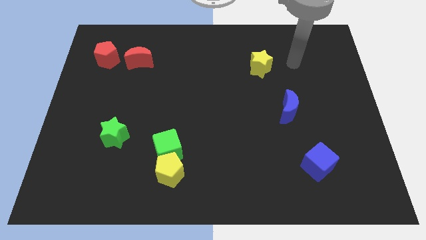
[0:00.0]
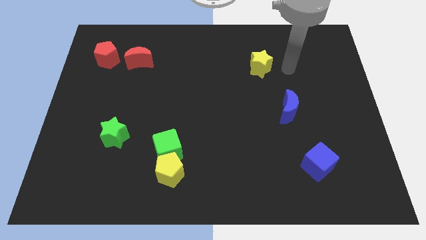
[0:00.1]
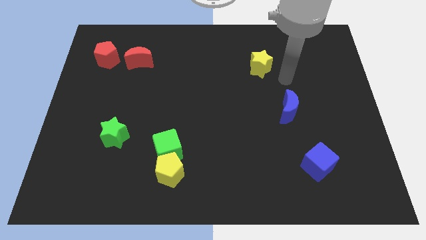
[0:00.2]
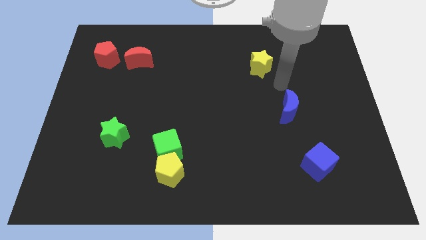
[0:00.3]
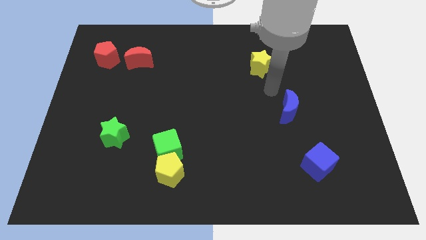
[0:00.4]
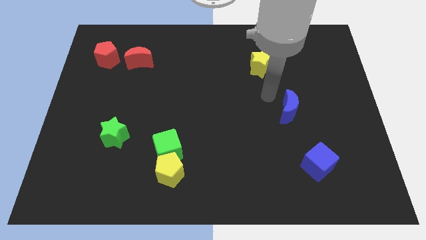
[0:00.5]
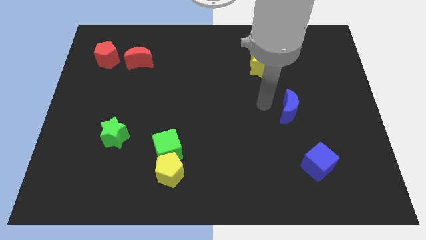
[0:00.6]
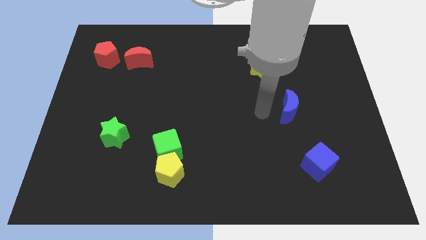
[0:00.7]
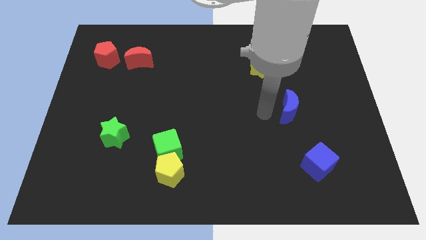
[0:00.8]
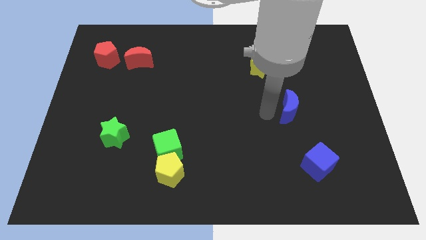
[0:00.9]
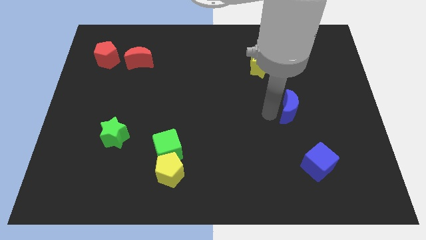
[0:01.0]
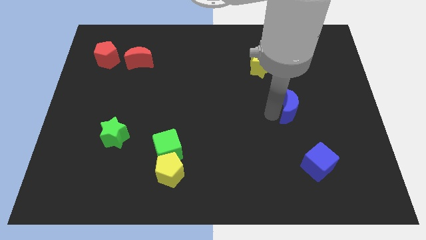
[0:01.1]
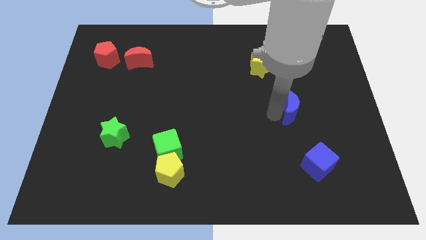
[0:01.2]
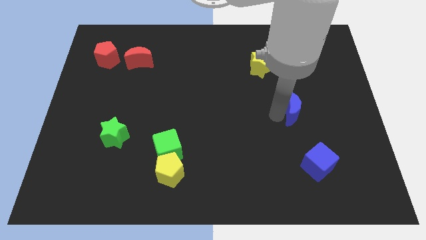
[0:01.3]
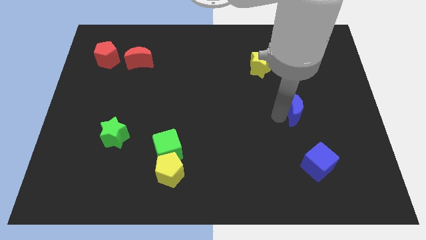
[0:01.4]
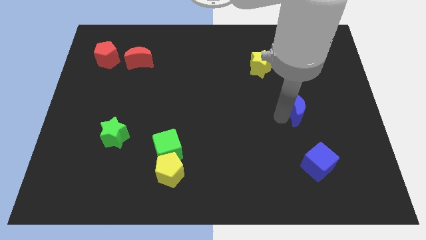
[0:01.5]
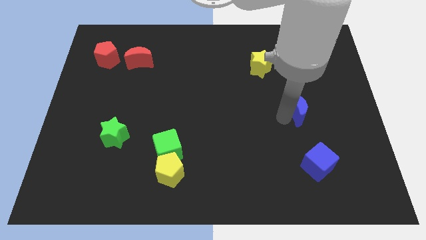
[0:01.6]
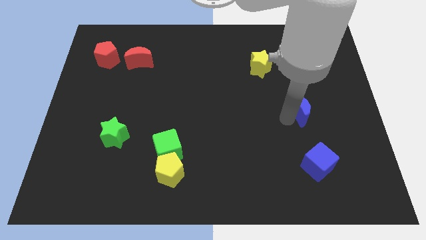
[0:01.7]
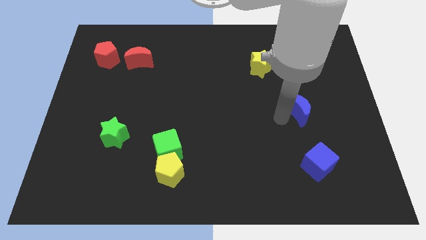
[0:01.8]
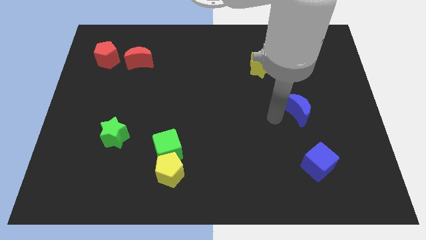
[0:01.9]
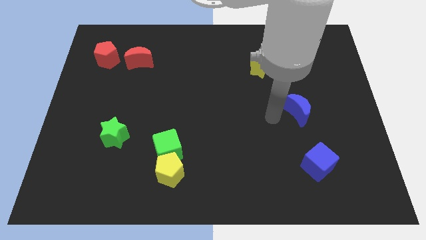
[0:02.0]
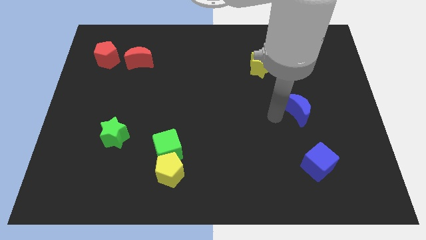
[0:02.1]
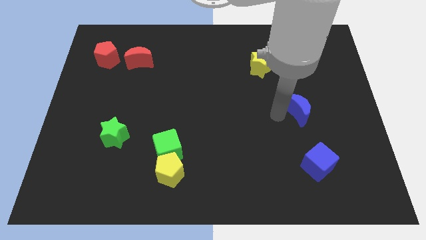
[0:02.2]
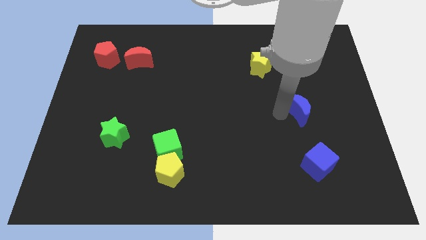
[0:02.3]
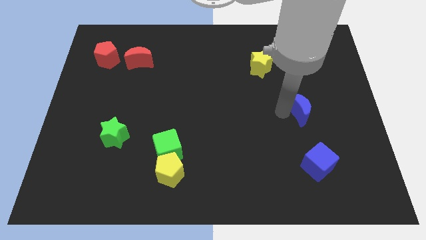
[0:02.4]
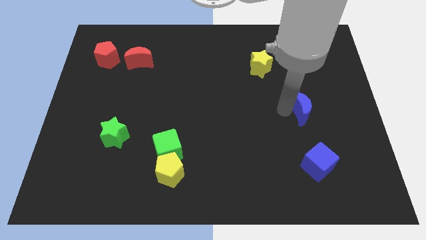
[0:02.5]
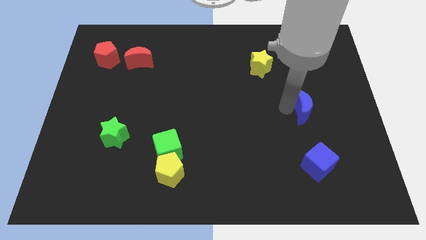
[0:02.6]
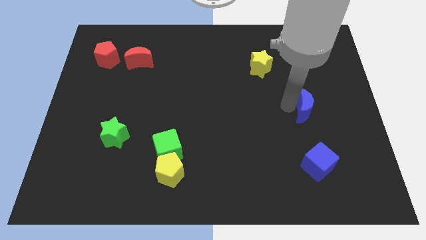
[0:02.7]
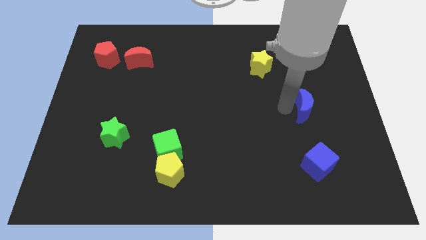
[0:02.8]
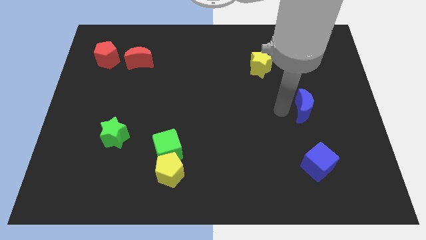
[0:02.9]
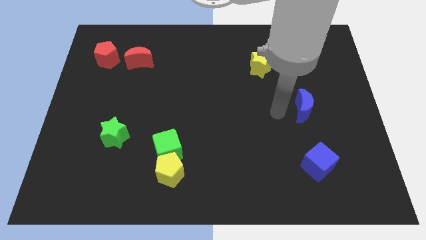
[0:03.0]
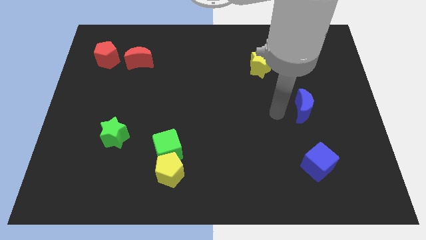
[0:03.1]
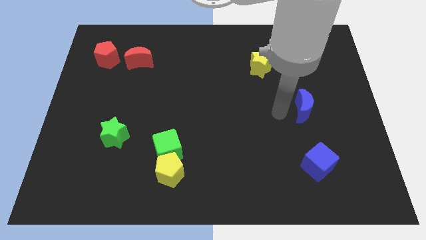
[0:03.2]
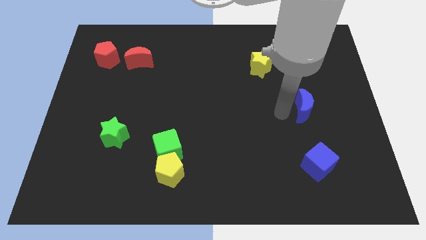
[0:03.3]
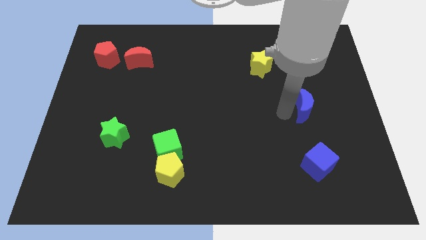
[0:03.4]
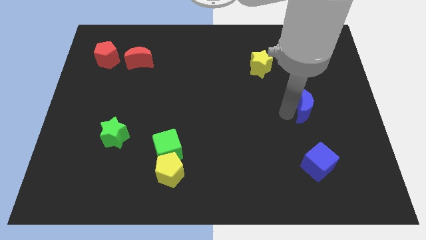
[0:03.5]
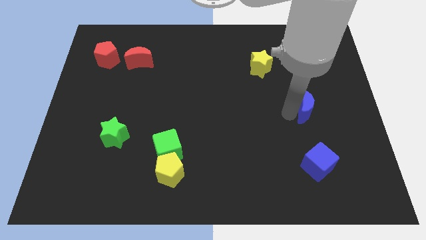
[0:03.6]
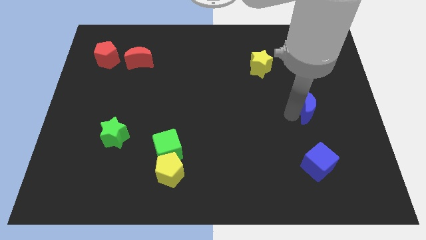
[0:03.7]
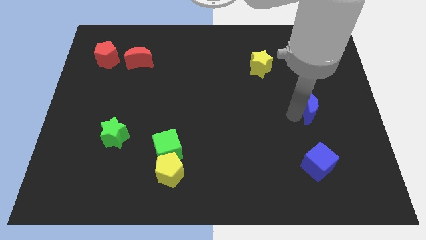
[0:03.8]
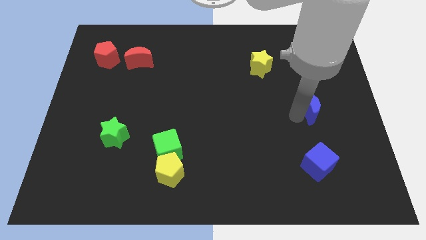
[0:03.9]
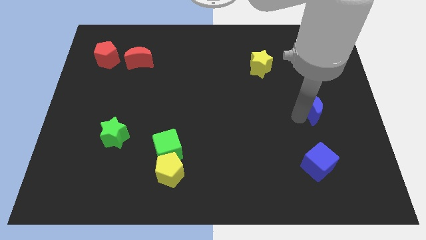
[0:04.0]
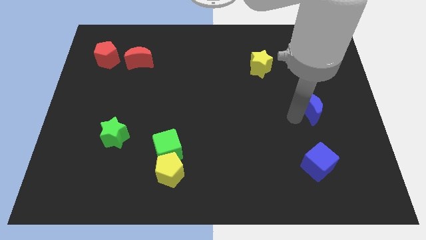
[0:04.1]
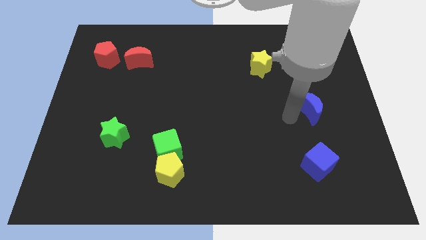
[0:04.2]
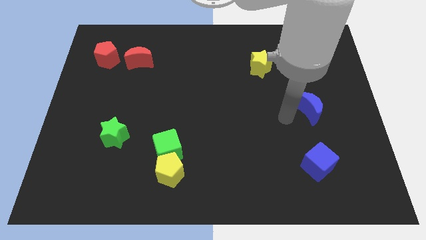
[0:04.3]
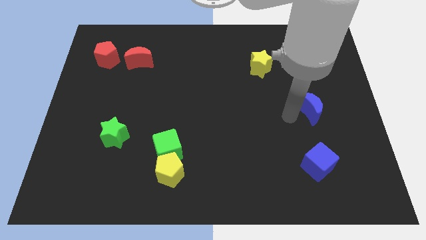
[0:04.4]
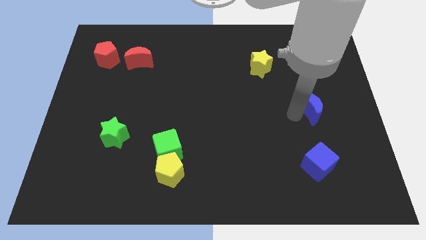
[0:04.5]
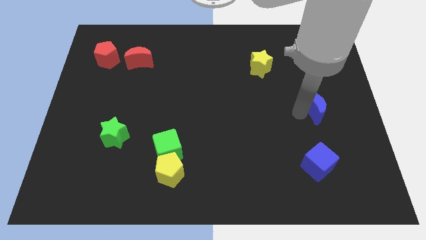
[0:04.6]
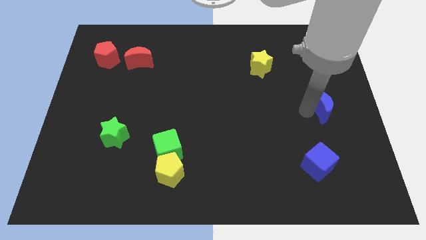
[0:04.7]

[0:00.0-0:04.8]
push the blue moon to the right side of the board
